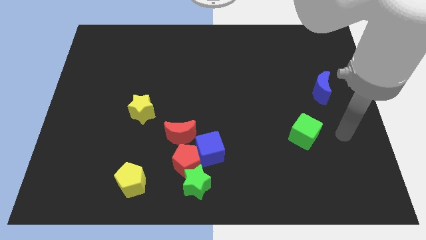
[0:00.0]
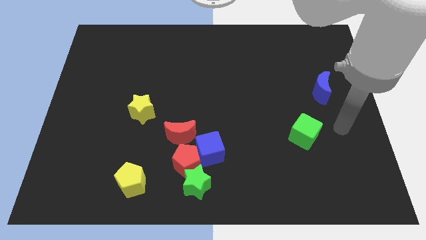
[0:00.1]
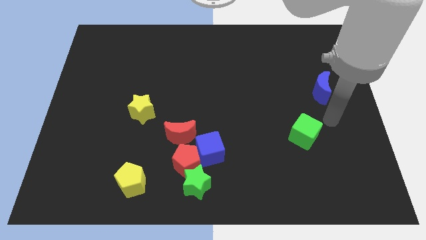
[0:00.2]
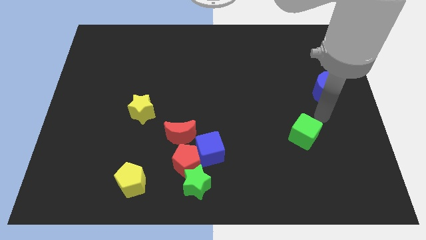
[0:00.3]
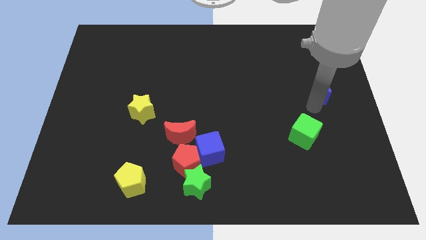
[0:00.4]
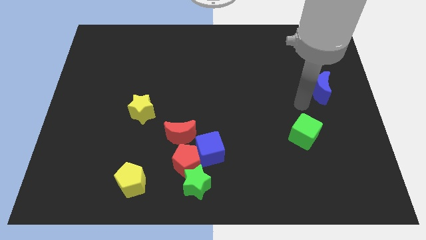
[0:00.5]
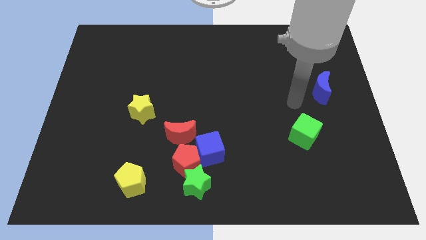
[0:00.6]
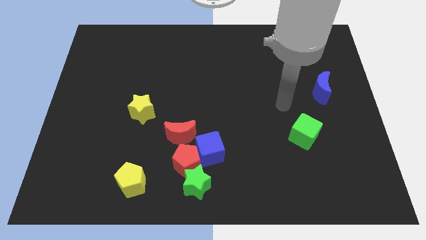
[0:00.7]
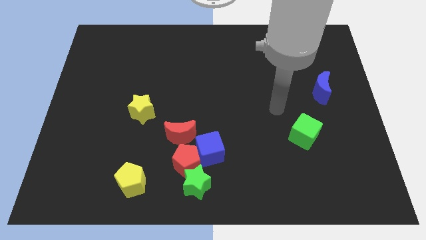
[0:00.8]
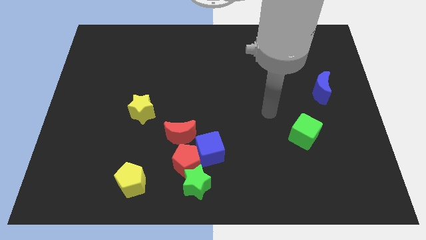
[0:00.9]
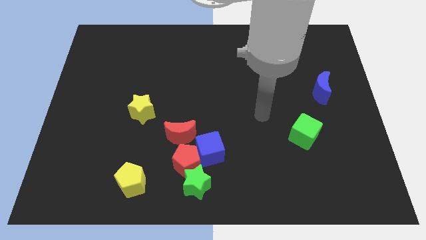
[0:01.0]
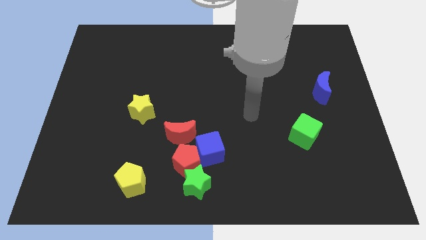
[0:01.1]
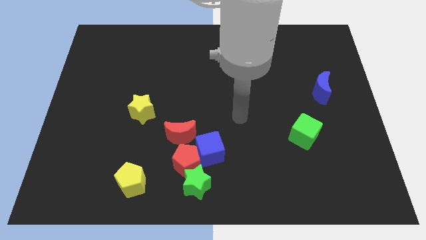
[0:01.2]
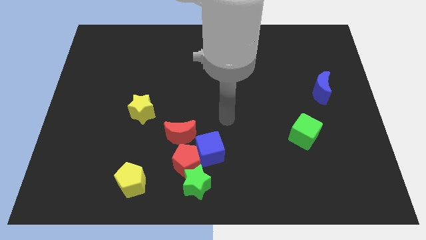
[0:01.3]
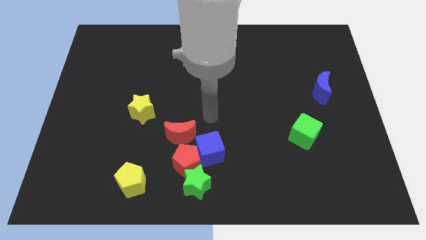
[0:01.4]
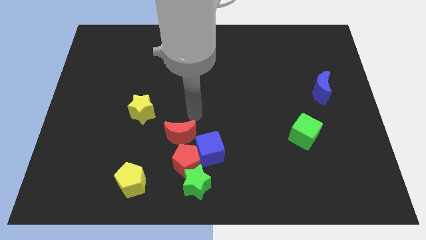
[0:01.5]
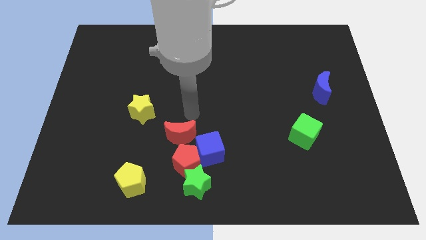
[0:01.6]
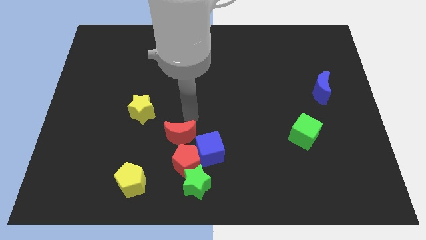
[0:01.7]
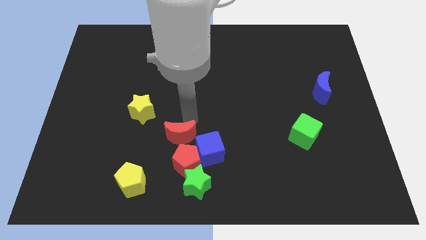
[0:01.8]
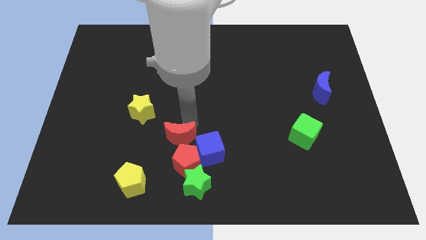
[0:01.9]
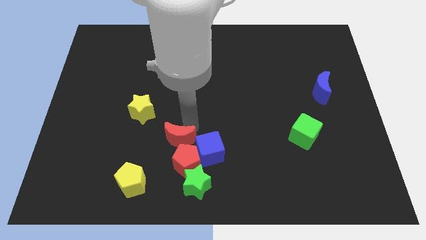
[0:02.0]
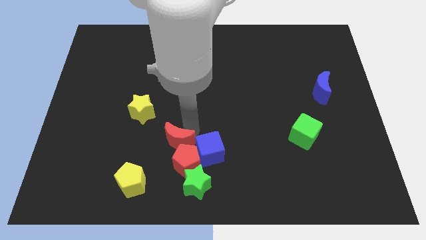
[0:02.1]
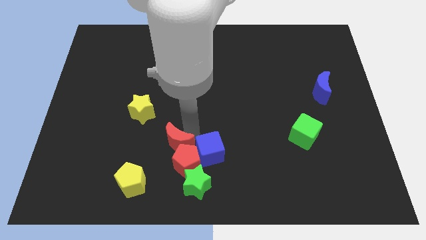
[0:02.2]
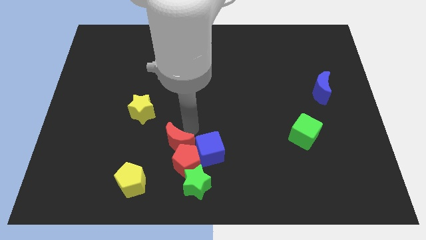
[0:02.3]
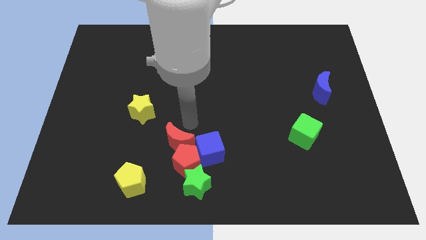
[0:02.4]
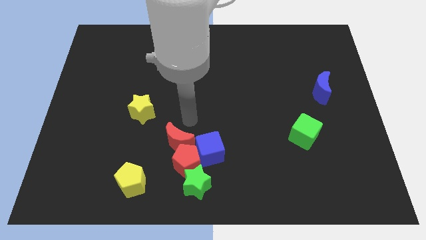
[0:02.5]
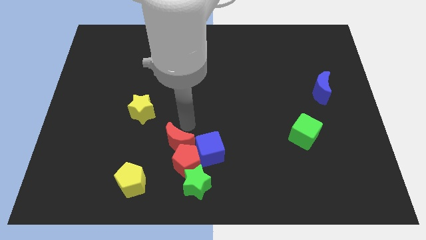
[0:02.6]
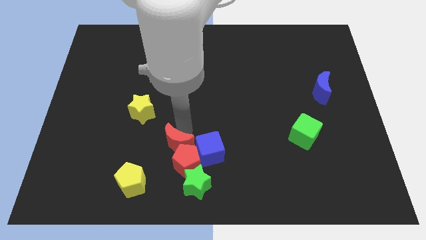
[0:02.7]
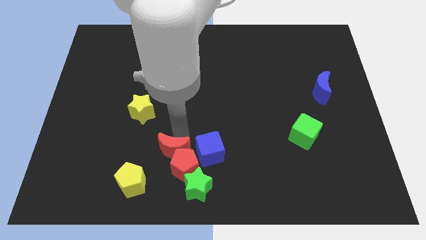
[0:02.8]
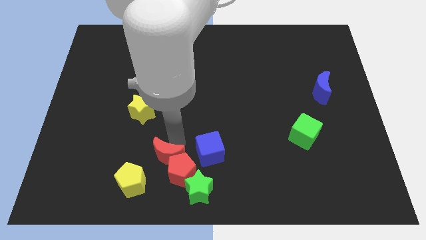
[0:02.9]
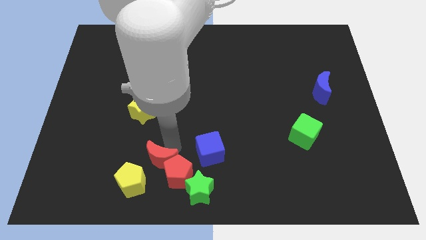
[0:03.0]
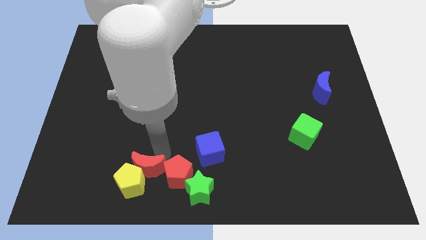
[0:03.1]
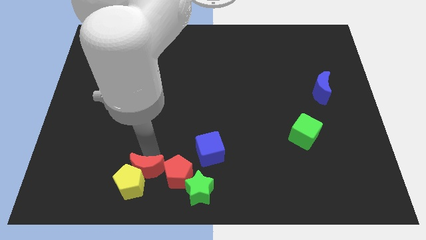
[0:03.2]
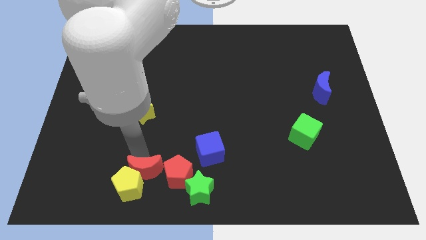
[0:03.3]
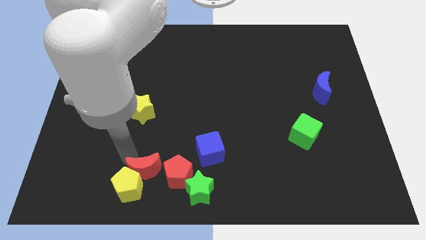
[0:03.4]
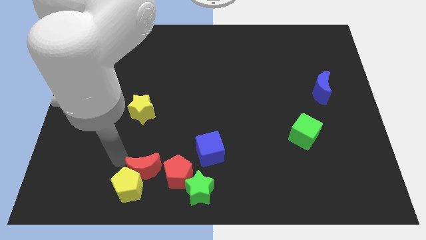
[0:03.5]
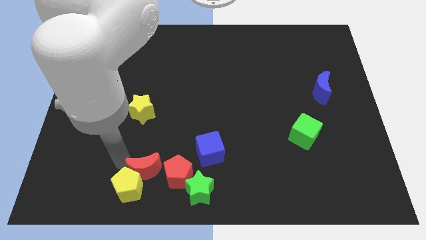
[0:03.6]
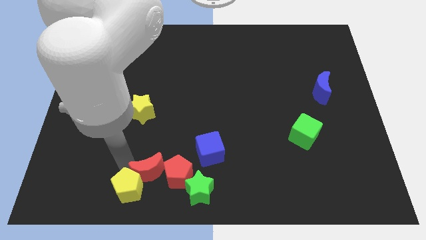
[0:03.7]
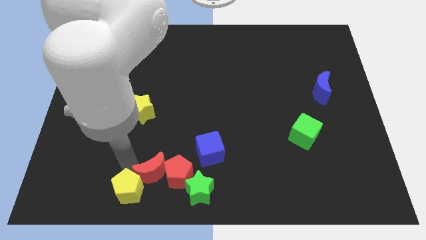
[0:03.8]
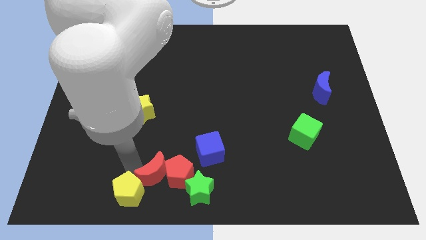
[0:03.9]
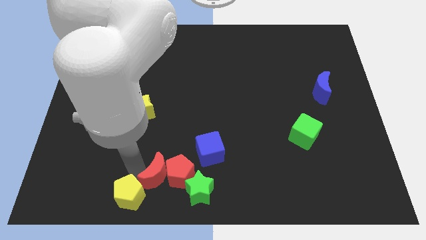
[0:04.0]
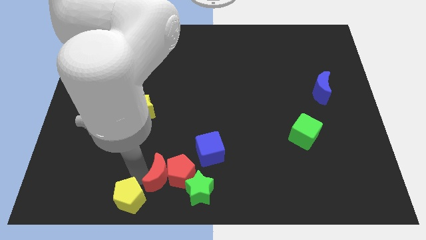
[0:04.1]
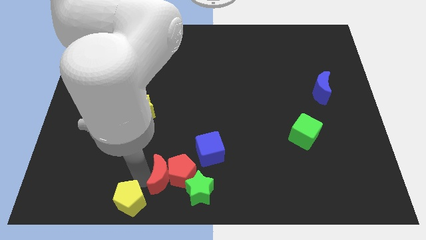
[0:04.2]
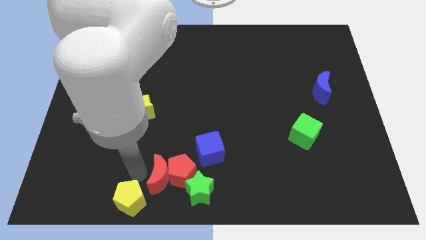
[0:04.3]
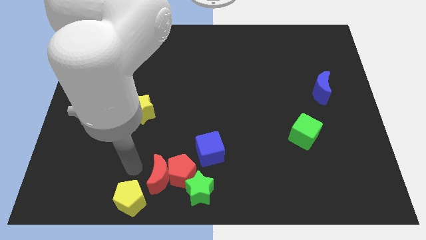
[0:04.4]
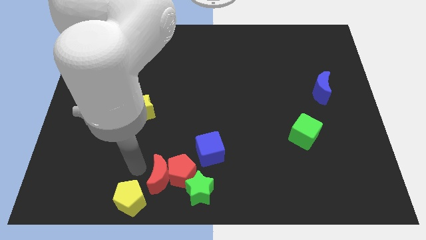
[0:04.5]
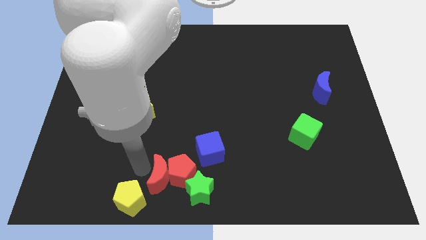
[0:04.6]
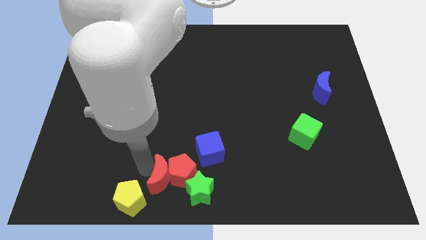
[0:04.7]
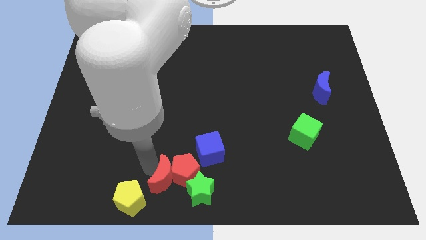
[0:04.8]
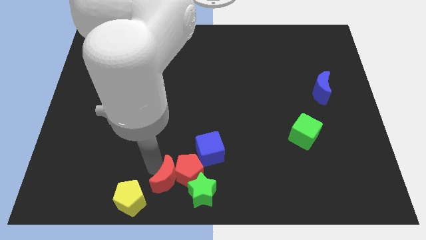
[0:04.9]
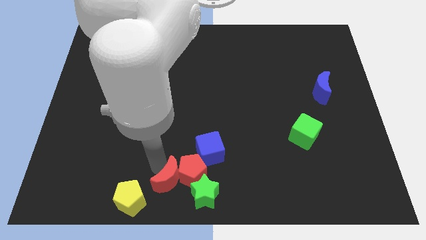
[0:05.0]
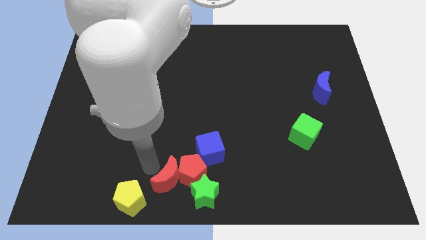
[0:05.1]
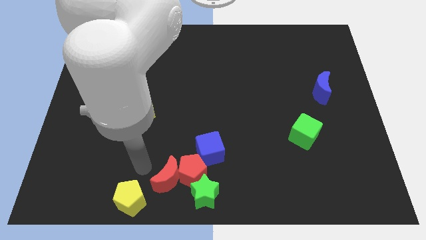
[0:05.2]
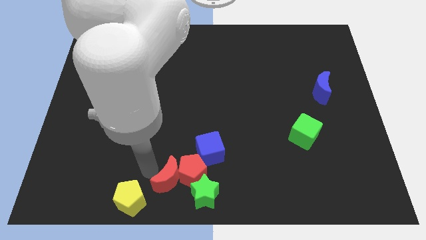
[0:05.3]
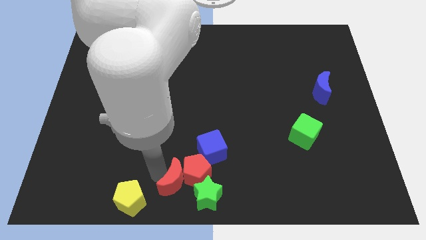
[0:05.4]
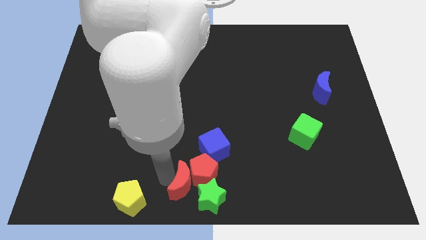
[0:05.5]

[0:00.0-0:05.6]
put the red moon close to the green star

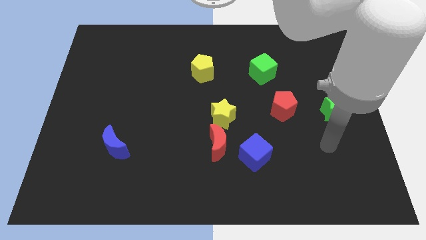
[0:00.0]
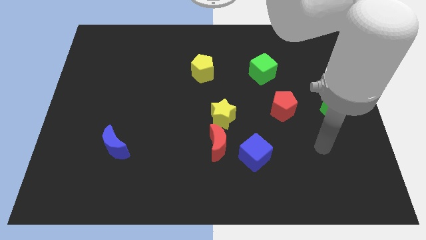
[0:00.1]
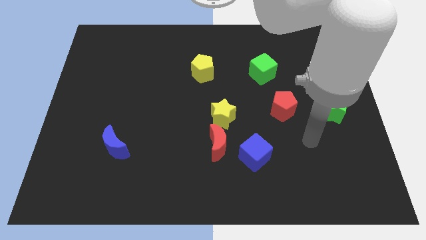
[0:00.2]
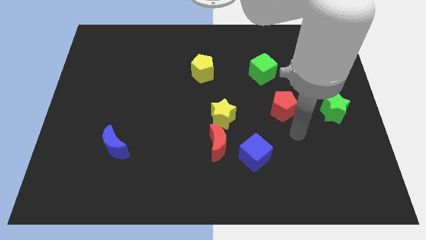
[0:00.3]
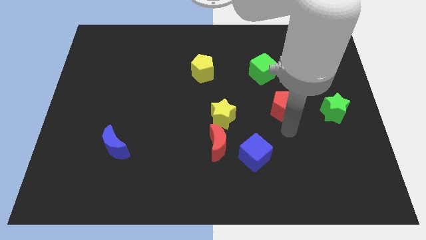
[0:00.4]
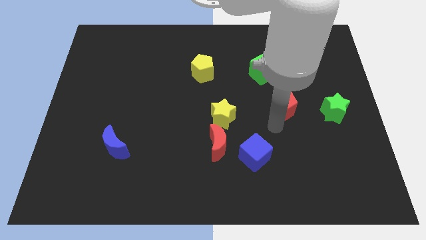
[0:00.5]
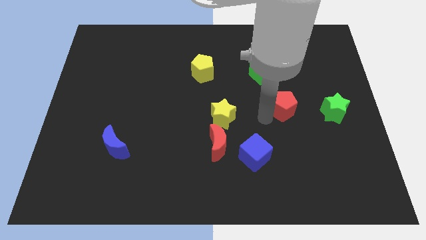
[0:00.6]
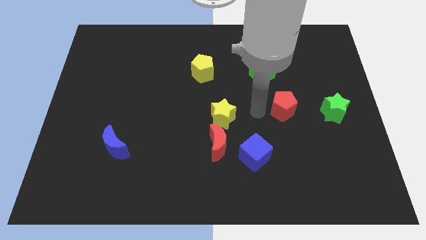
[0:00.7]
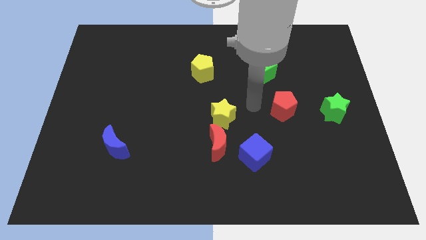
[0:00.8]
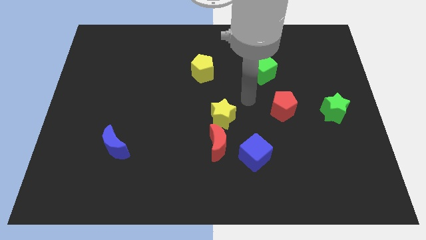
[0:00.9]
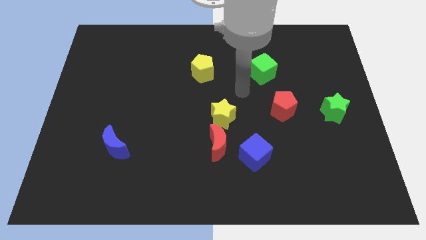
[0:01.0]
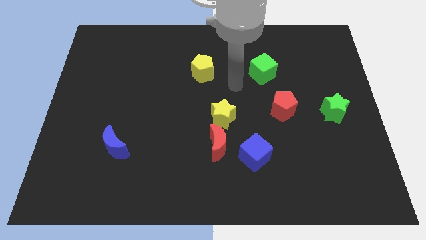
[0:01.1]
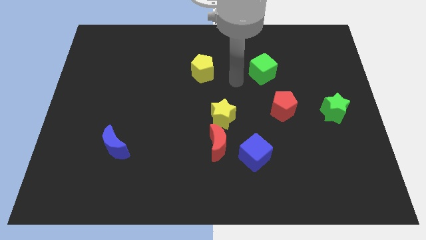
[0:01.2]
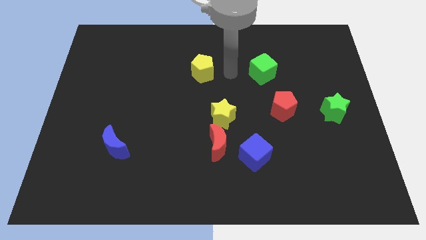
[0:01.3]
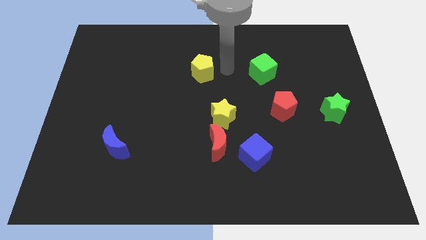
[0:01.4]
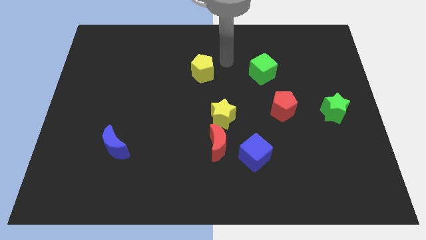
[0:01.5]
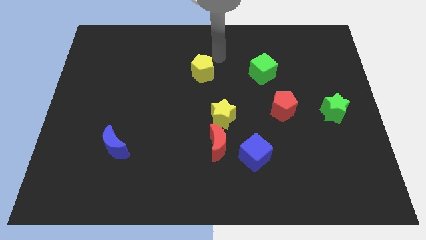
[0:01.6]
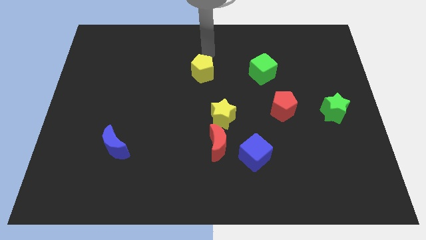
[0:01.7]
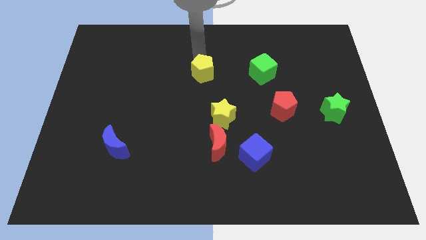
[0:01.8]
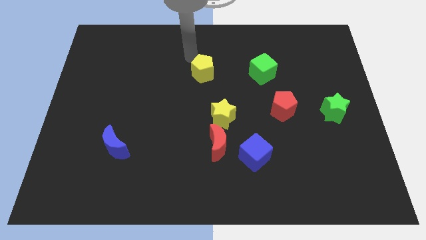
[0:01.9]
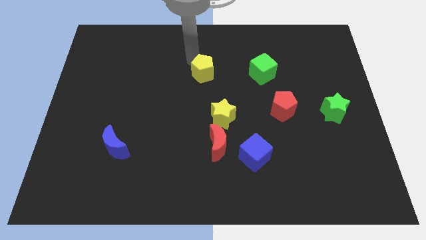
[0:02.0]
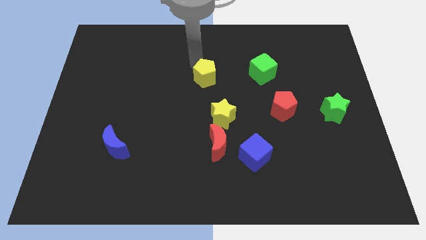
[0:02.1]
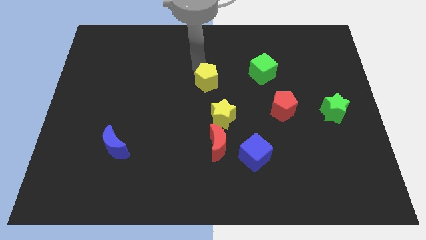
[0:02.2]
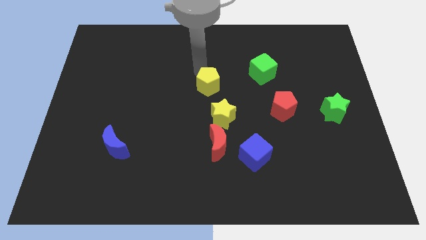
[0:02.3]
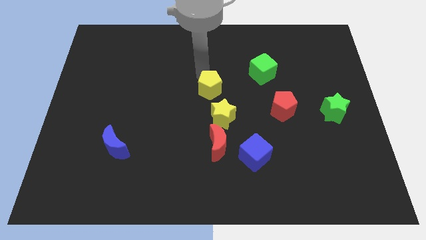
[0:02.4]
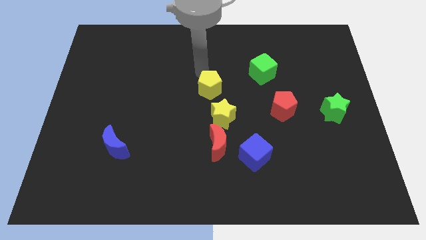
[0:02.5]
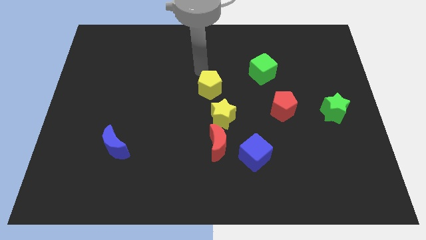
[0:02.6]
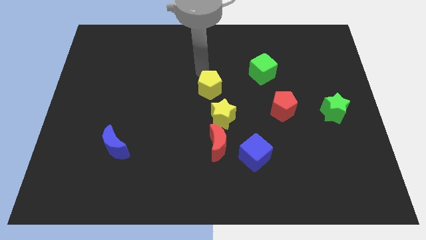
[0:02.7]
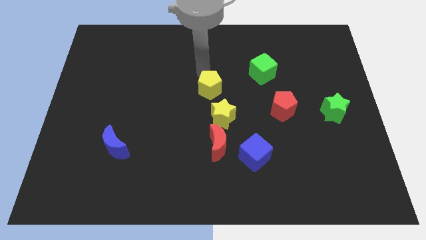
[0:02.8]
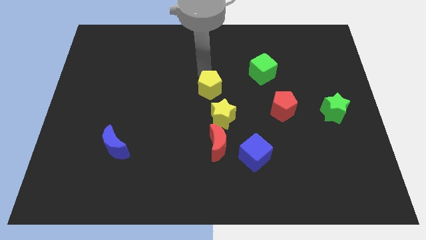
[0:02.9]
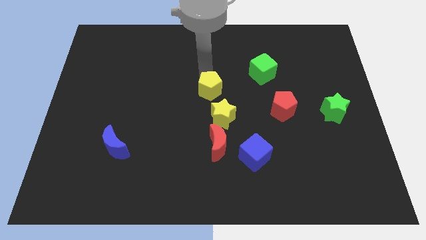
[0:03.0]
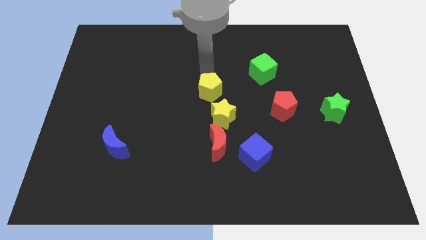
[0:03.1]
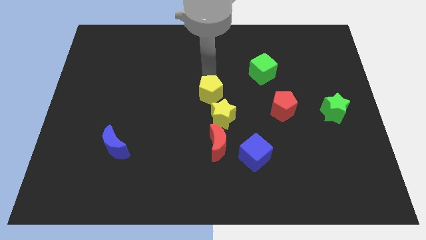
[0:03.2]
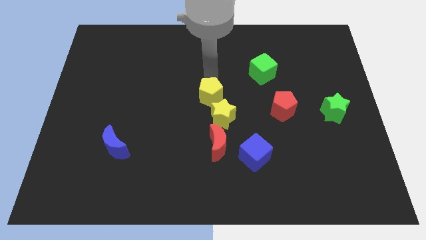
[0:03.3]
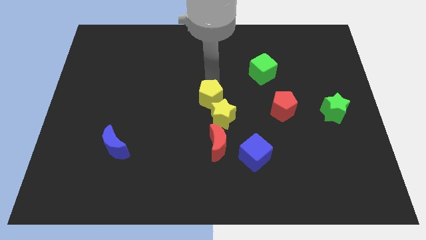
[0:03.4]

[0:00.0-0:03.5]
put the yellow pentagon towards the yellow star
